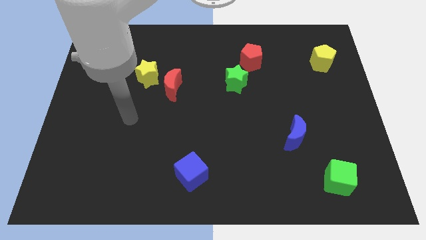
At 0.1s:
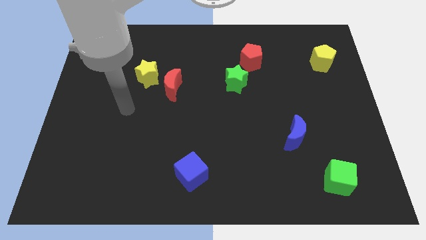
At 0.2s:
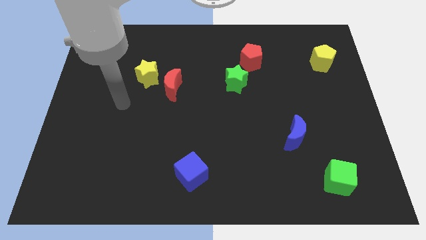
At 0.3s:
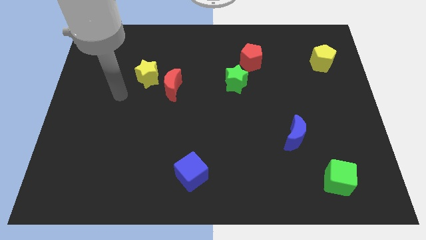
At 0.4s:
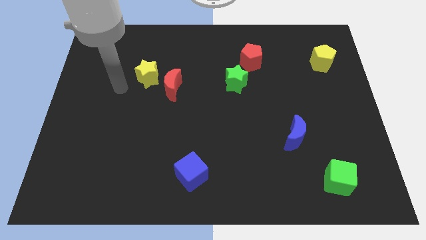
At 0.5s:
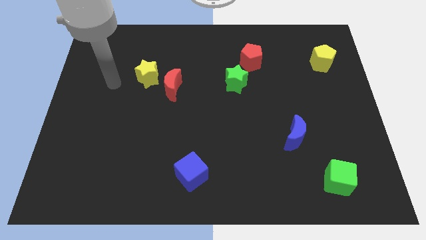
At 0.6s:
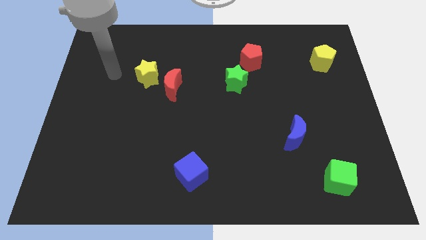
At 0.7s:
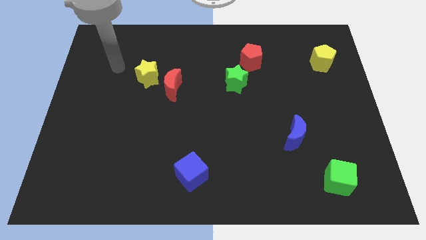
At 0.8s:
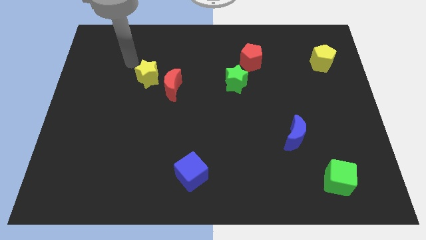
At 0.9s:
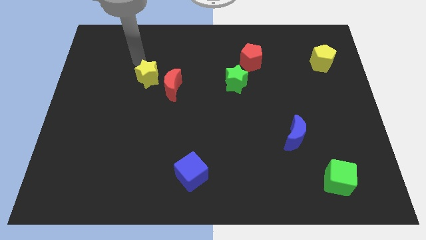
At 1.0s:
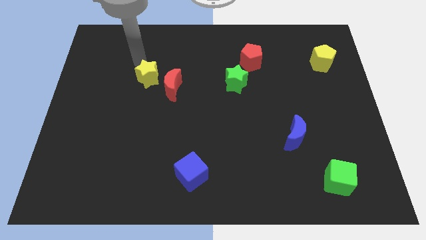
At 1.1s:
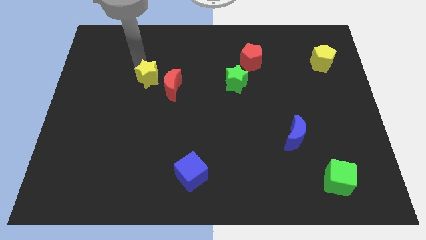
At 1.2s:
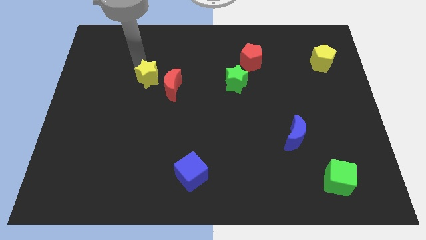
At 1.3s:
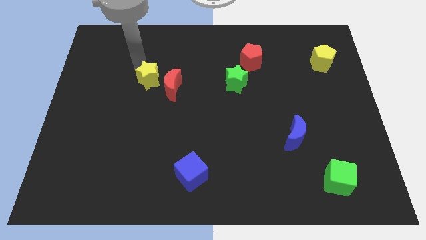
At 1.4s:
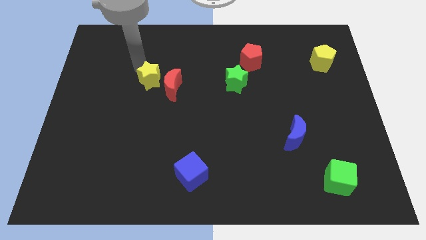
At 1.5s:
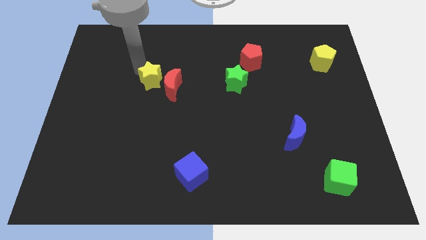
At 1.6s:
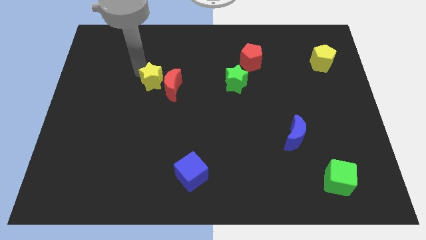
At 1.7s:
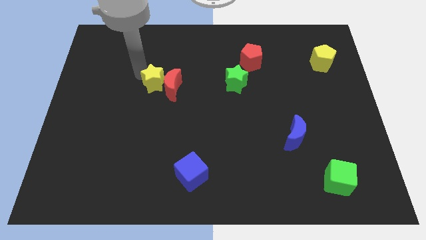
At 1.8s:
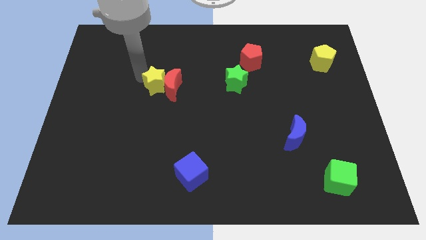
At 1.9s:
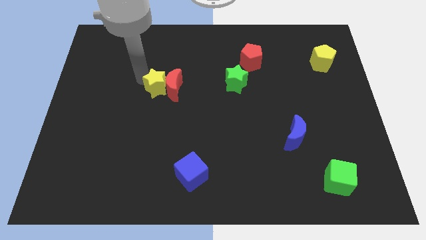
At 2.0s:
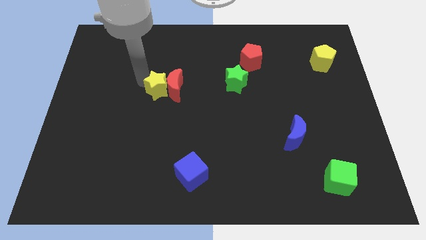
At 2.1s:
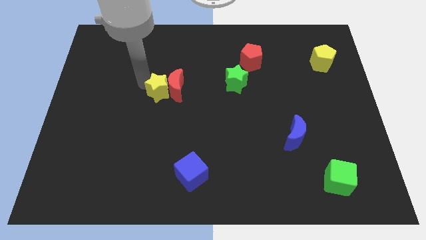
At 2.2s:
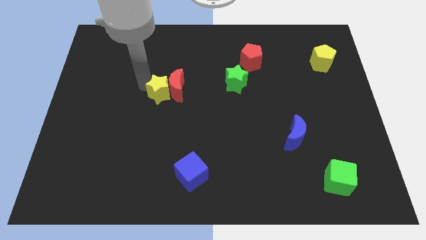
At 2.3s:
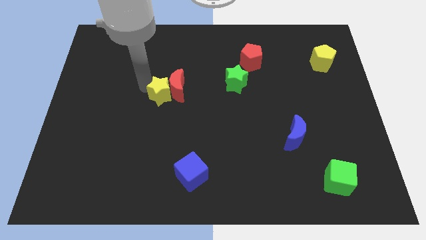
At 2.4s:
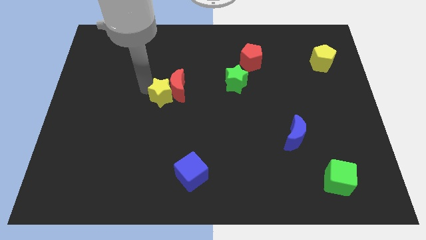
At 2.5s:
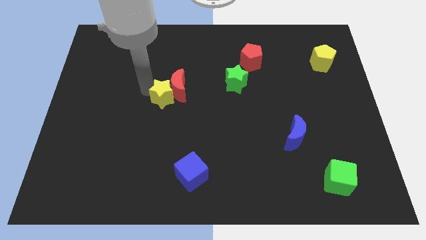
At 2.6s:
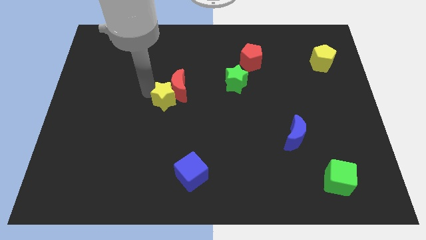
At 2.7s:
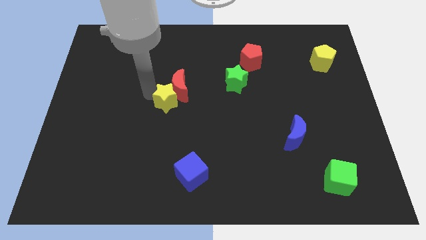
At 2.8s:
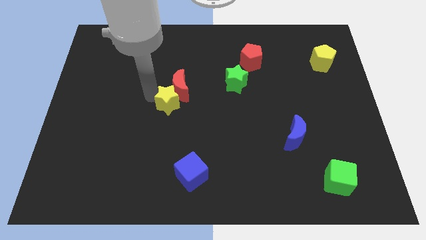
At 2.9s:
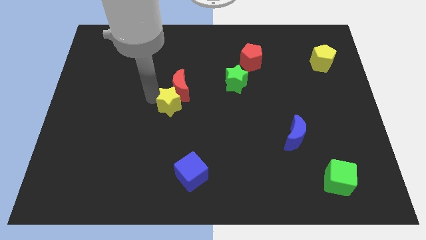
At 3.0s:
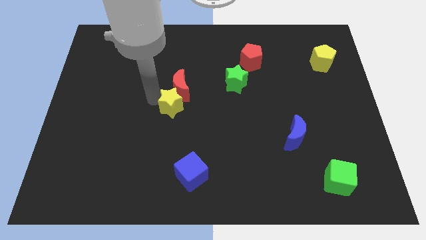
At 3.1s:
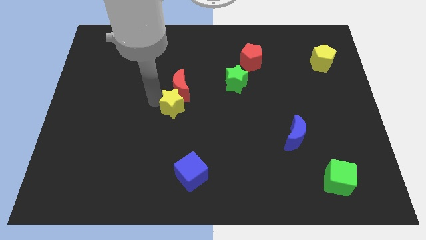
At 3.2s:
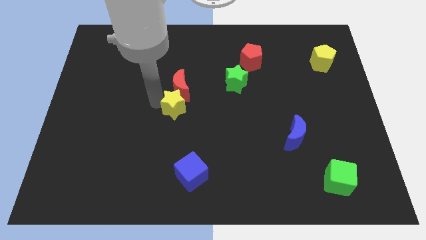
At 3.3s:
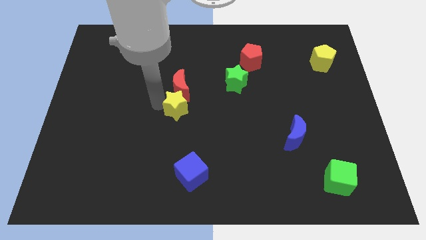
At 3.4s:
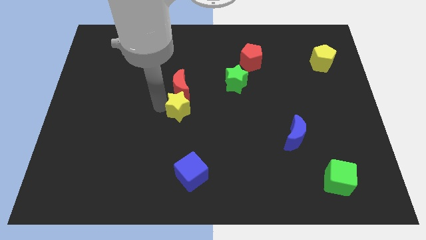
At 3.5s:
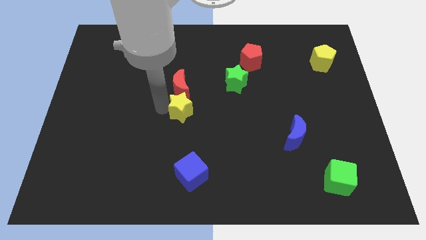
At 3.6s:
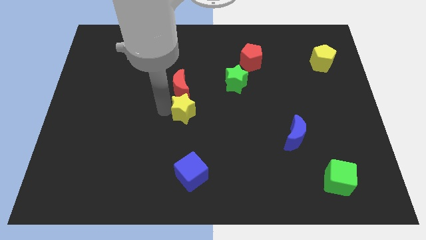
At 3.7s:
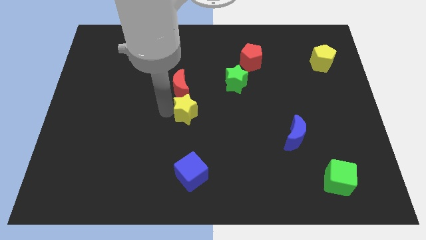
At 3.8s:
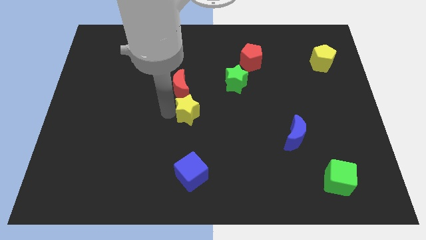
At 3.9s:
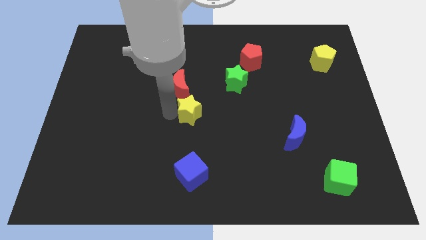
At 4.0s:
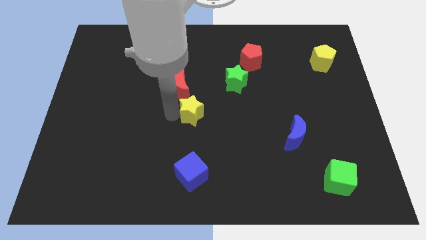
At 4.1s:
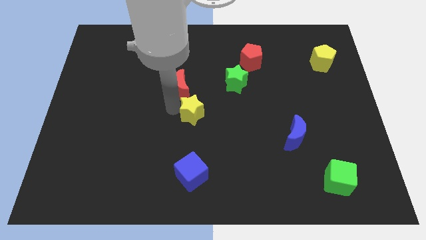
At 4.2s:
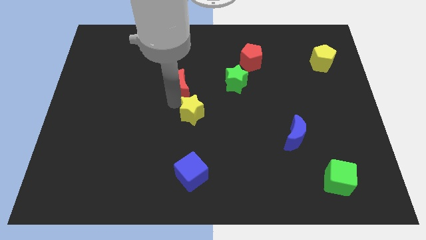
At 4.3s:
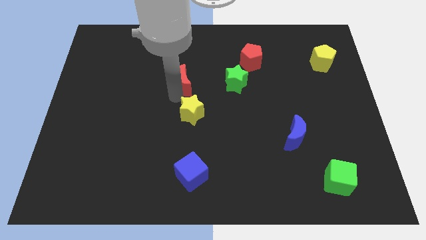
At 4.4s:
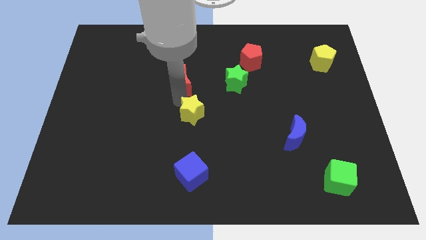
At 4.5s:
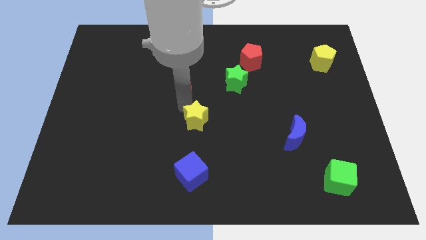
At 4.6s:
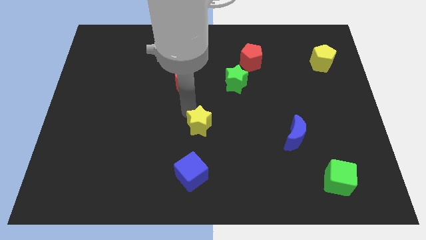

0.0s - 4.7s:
push the yellow star downwards and to the right diagonally

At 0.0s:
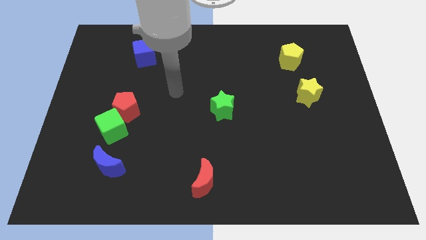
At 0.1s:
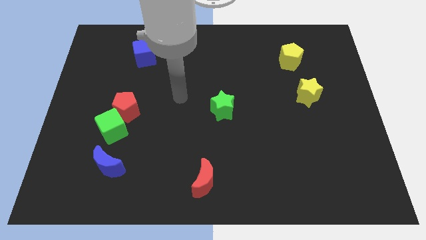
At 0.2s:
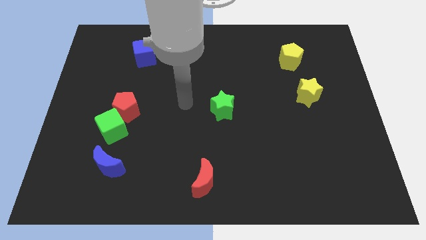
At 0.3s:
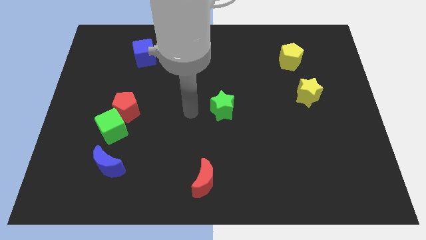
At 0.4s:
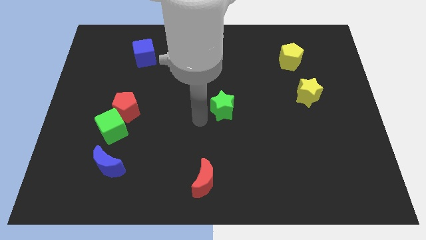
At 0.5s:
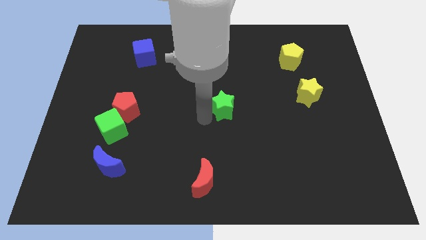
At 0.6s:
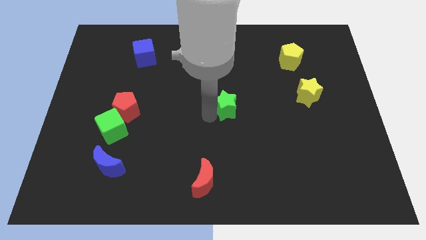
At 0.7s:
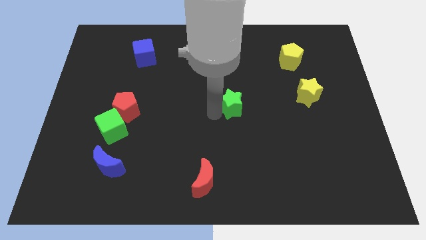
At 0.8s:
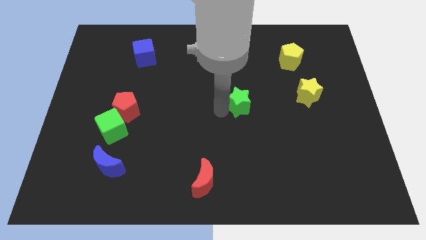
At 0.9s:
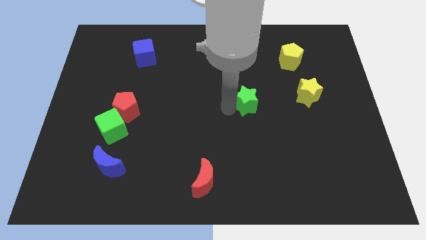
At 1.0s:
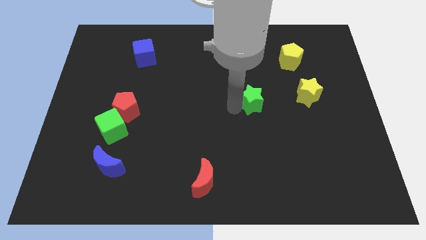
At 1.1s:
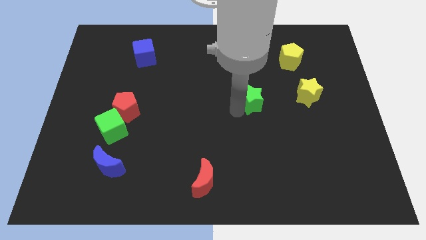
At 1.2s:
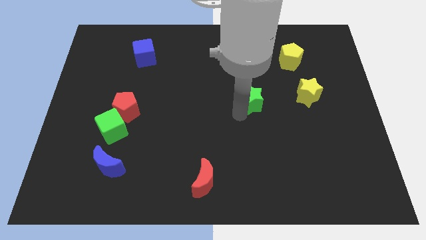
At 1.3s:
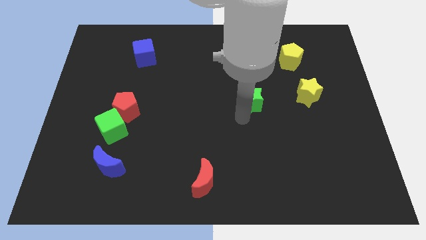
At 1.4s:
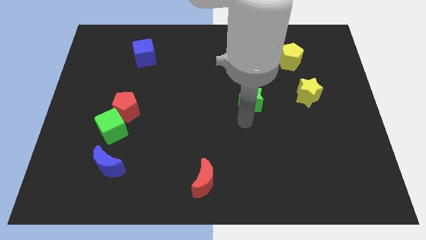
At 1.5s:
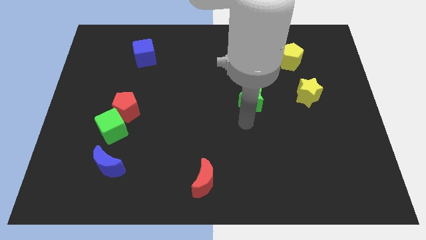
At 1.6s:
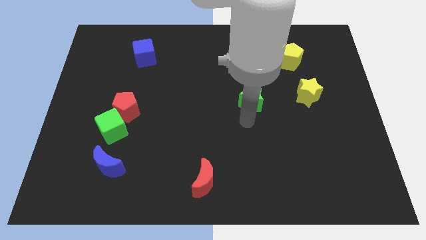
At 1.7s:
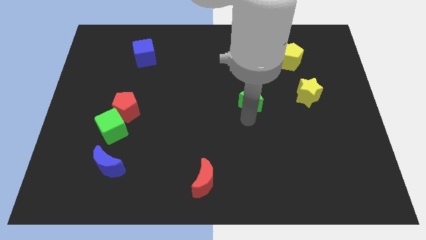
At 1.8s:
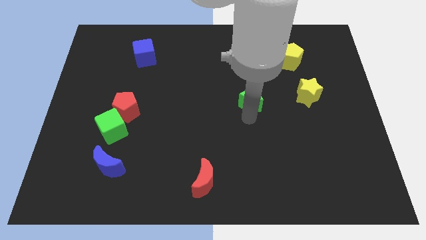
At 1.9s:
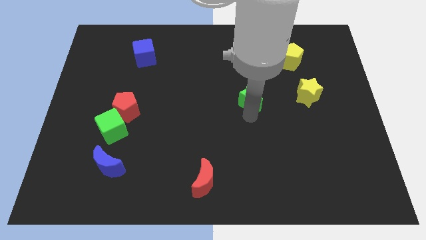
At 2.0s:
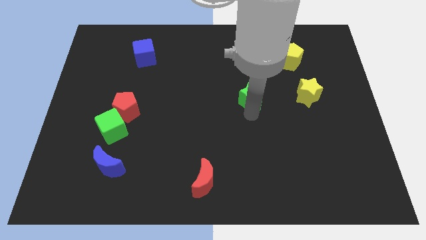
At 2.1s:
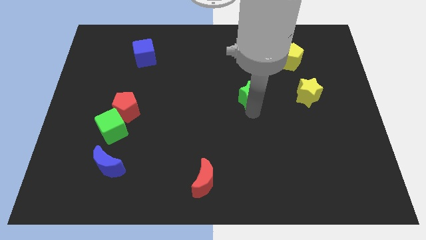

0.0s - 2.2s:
slide the green star slightly upwards and to the right

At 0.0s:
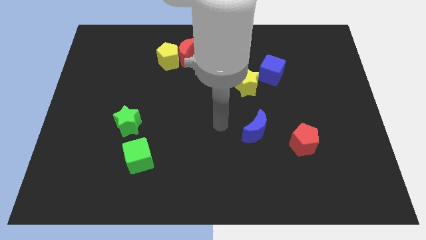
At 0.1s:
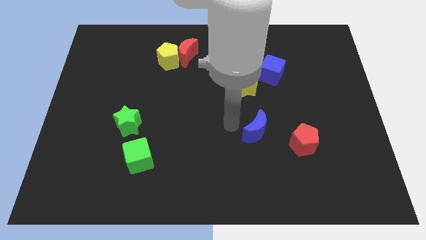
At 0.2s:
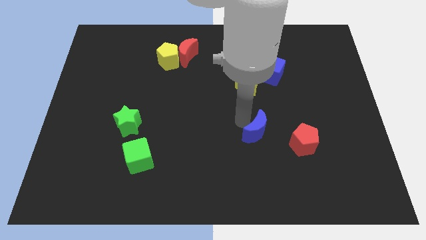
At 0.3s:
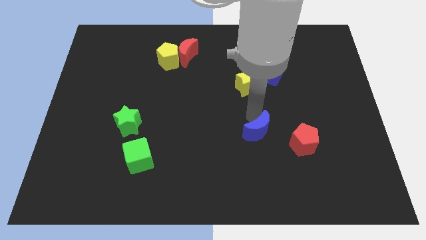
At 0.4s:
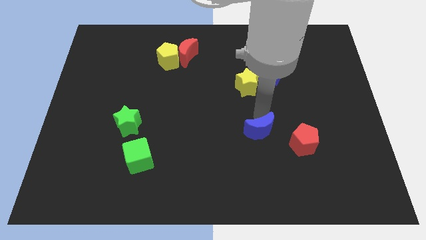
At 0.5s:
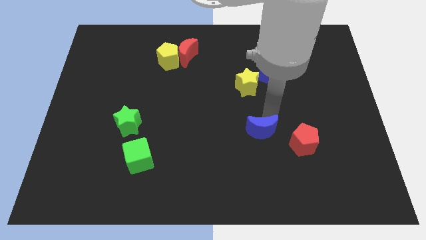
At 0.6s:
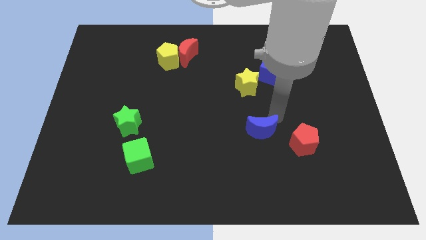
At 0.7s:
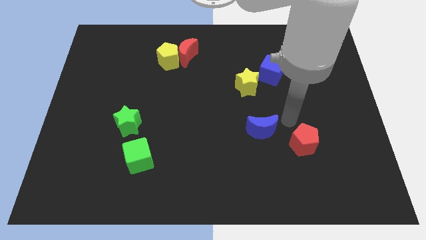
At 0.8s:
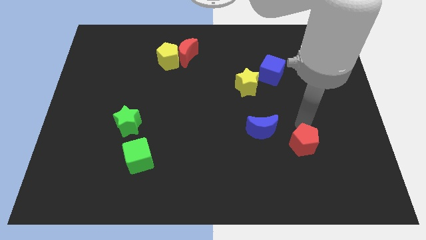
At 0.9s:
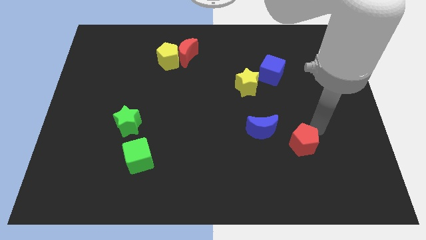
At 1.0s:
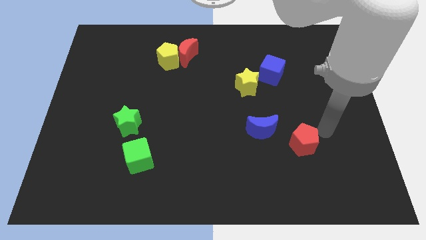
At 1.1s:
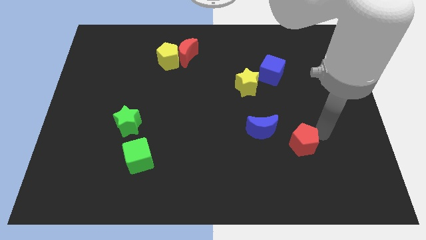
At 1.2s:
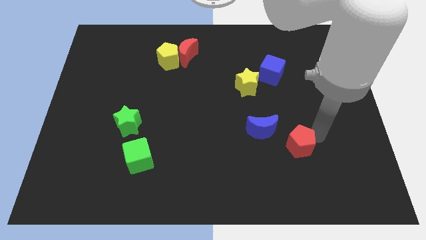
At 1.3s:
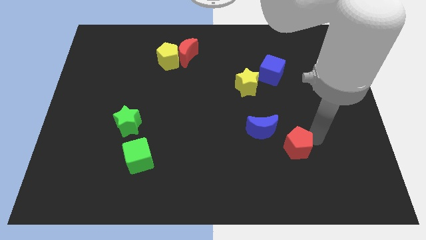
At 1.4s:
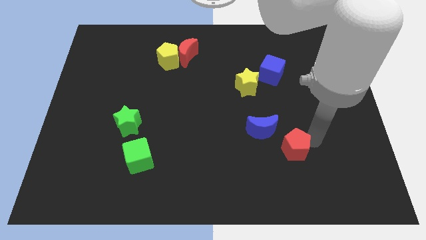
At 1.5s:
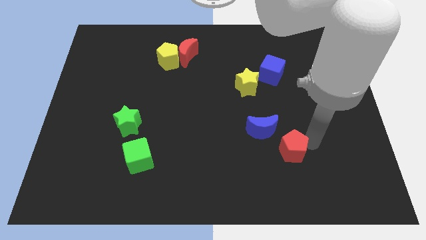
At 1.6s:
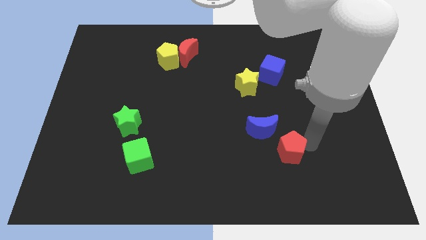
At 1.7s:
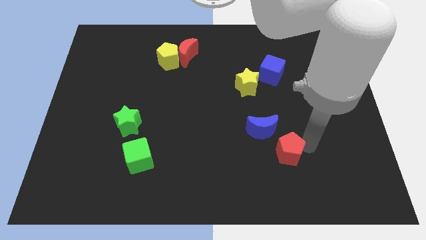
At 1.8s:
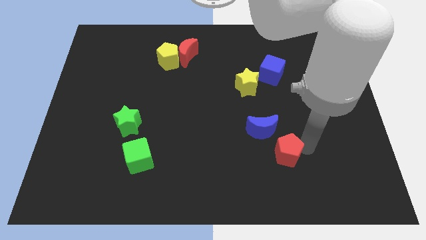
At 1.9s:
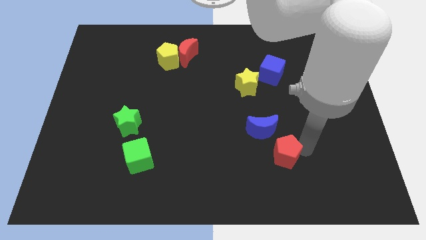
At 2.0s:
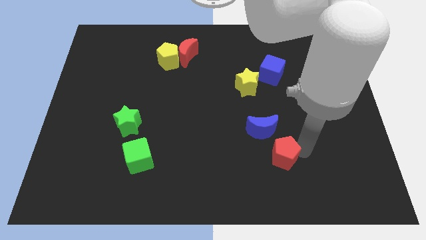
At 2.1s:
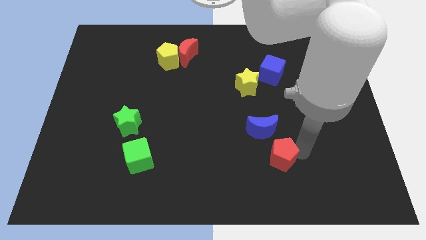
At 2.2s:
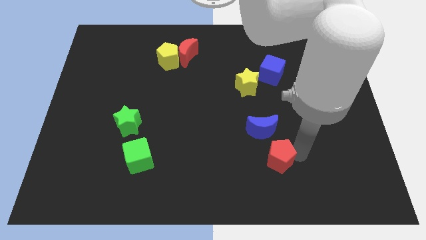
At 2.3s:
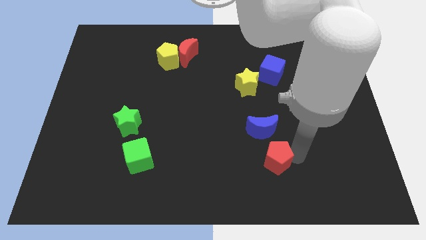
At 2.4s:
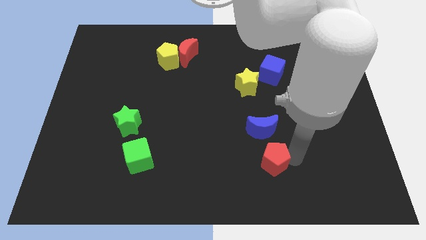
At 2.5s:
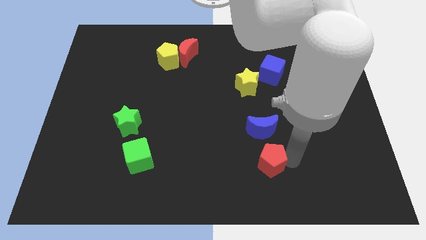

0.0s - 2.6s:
slide the red pentagon left somewhat
